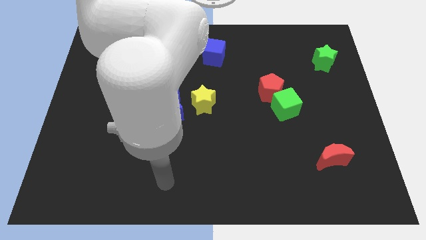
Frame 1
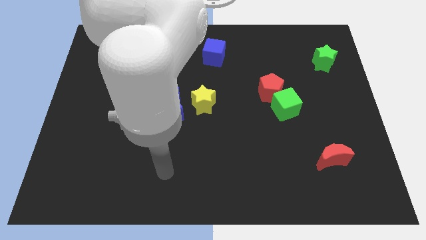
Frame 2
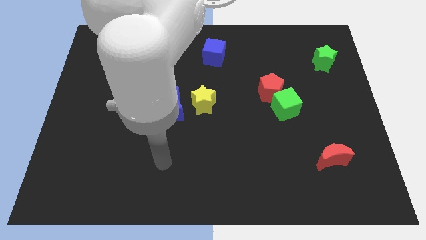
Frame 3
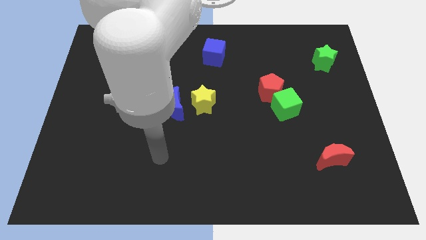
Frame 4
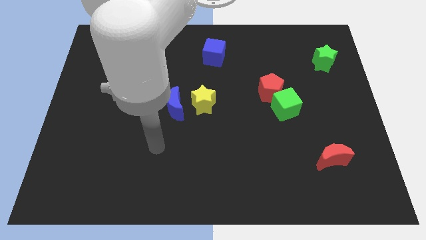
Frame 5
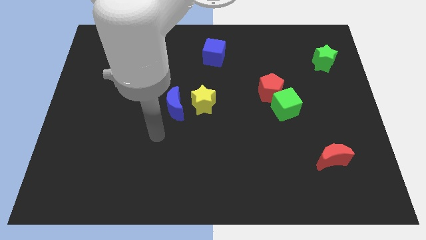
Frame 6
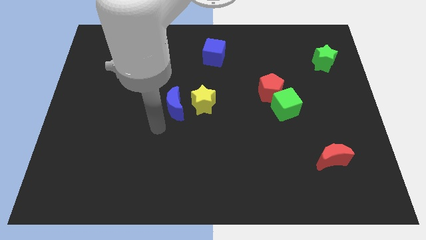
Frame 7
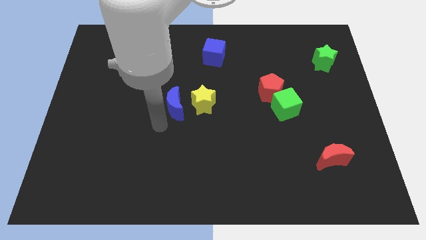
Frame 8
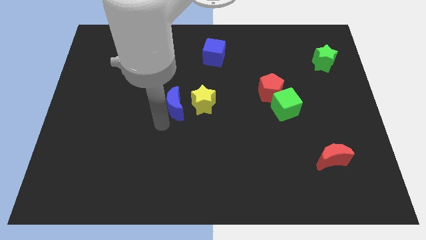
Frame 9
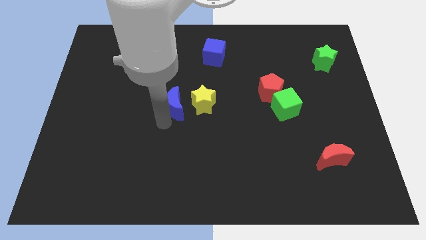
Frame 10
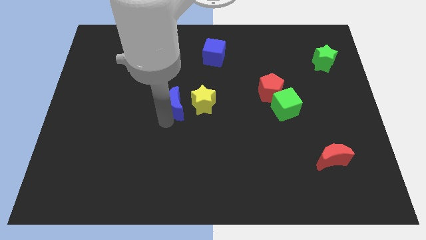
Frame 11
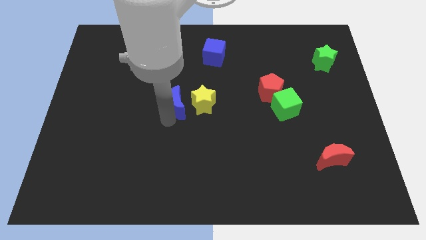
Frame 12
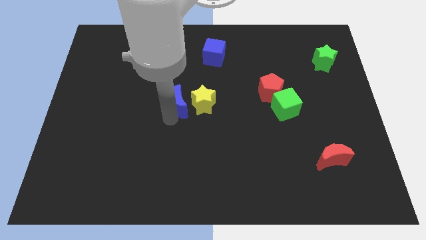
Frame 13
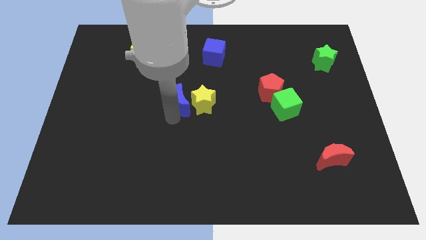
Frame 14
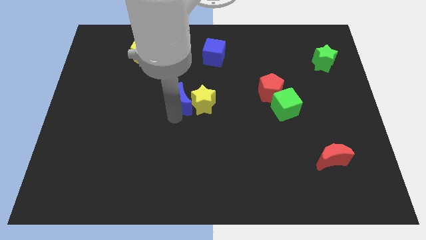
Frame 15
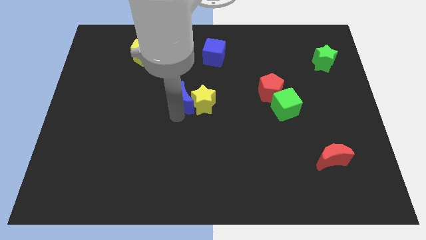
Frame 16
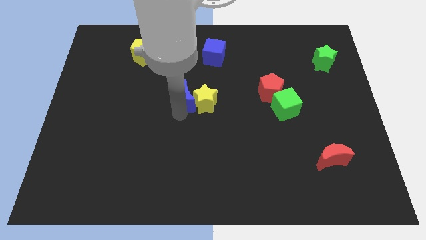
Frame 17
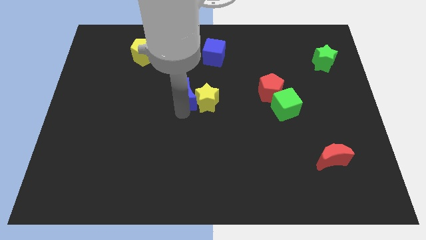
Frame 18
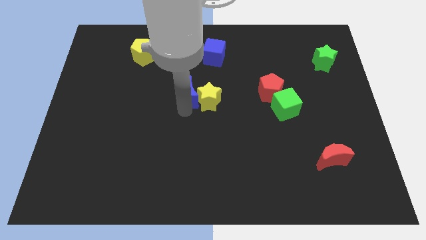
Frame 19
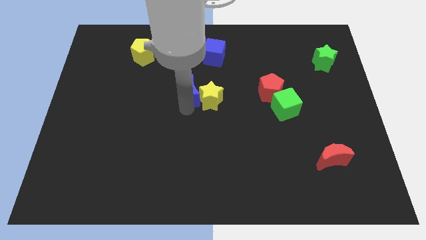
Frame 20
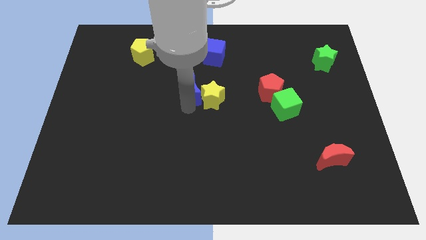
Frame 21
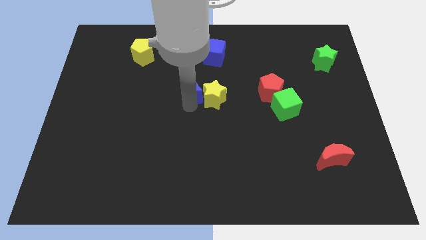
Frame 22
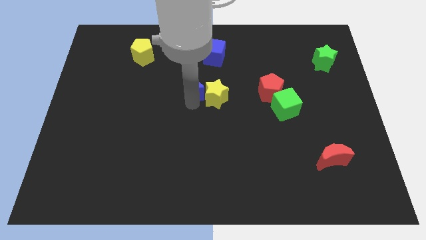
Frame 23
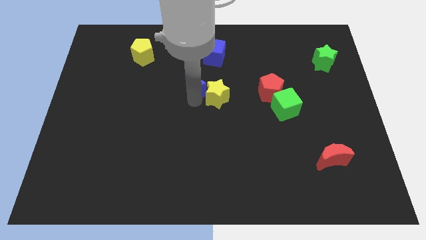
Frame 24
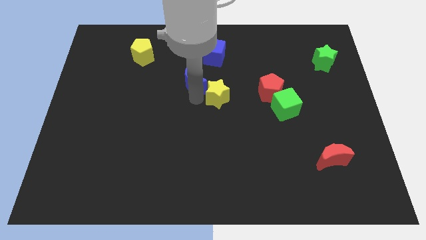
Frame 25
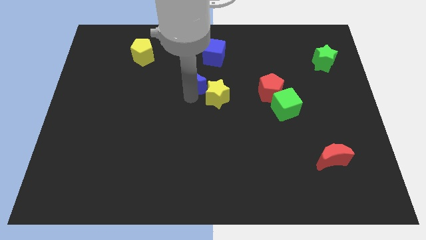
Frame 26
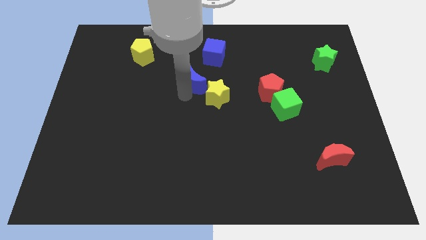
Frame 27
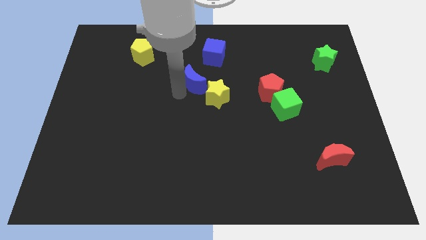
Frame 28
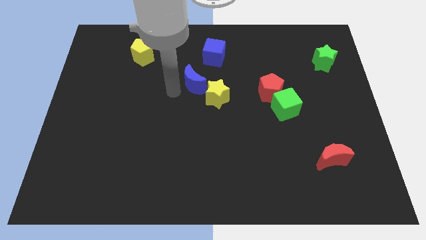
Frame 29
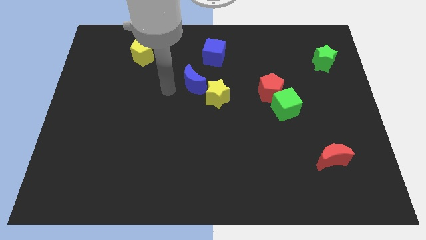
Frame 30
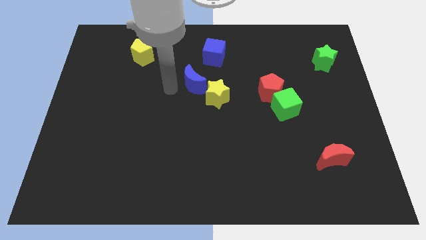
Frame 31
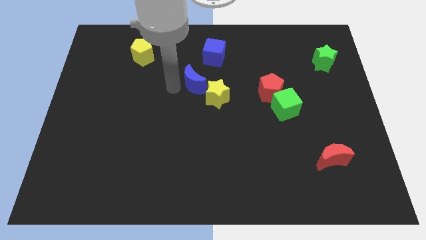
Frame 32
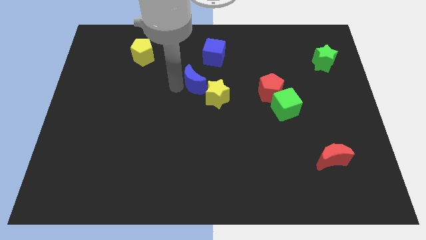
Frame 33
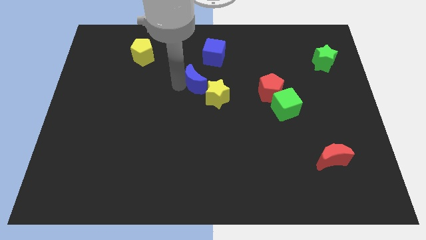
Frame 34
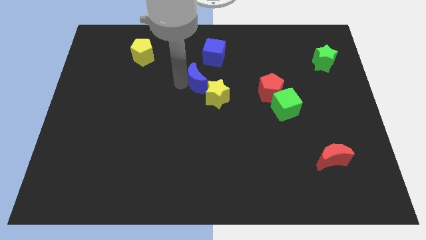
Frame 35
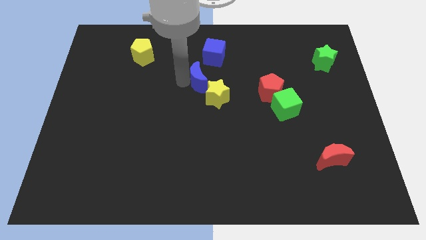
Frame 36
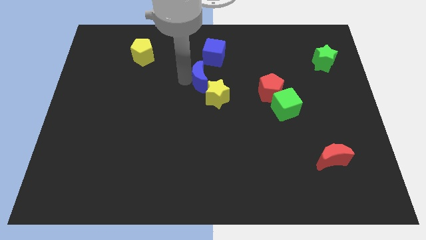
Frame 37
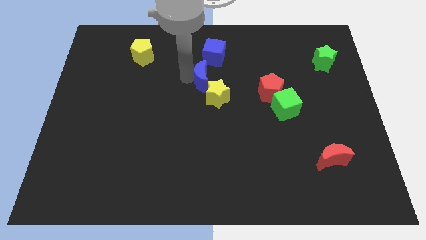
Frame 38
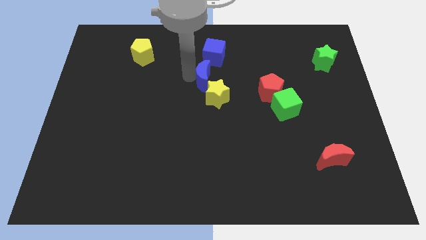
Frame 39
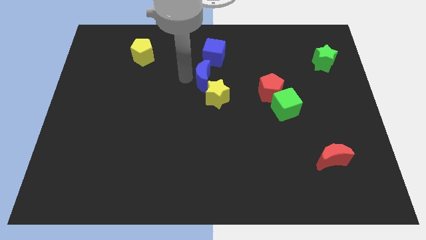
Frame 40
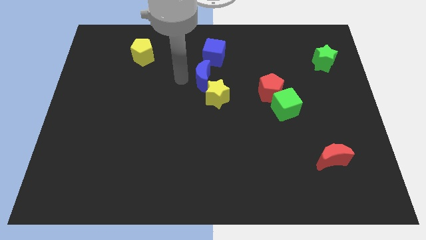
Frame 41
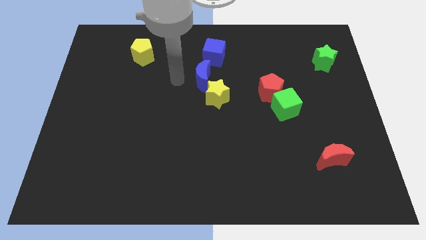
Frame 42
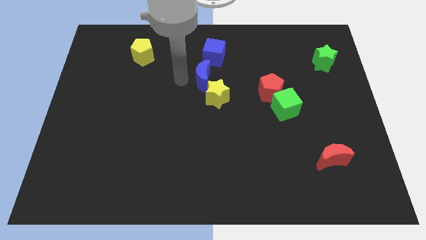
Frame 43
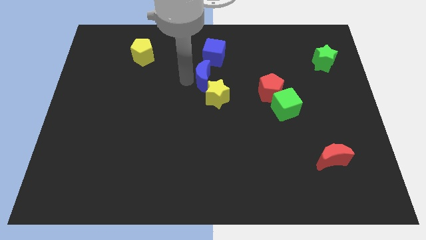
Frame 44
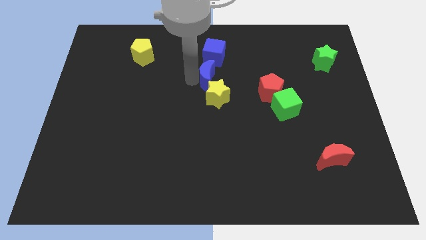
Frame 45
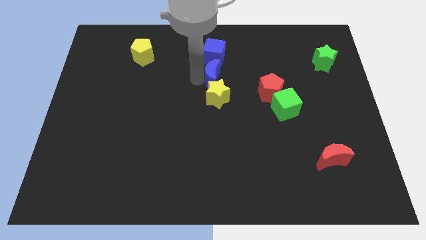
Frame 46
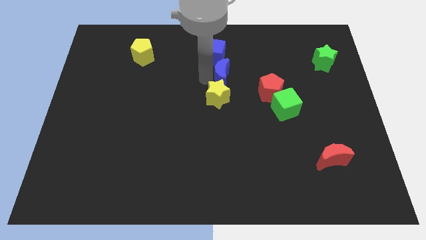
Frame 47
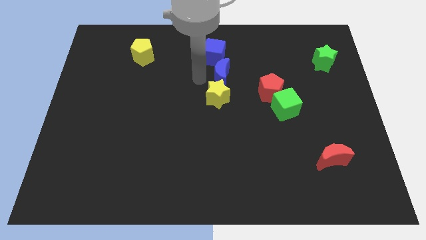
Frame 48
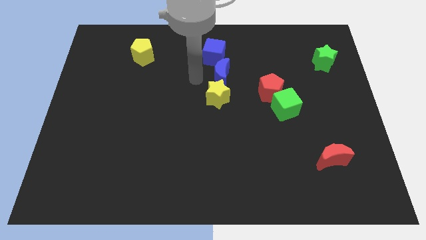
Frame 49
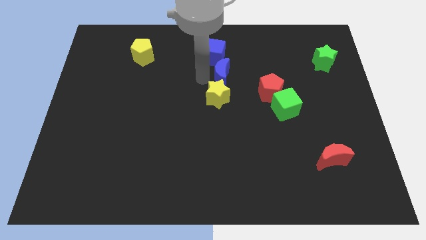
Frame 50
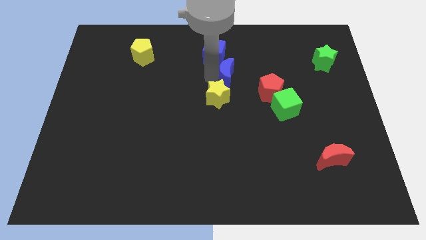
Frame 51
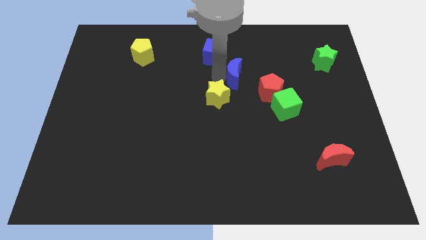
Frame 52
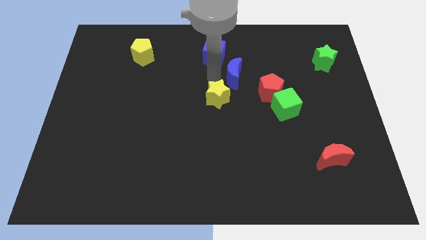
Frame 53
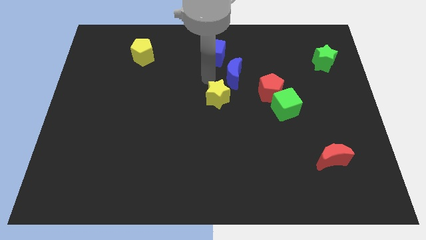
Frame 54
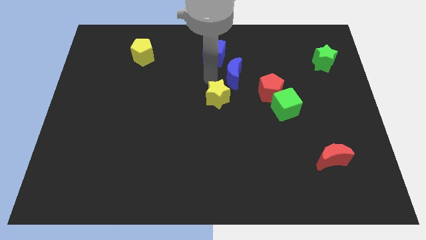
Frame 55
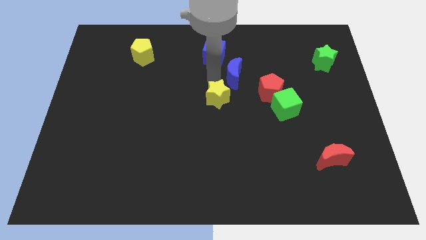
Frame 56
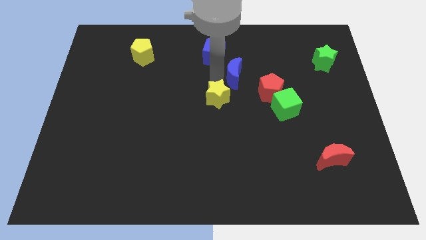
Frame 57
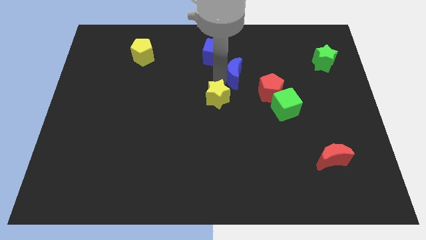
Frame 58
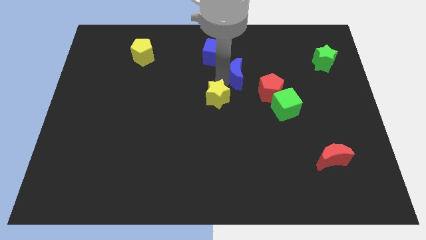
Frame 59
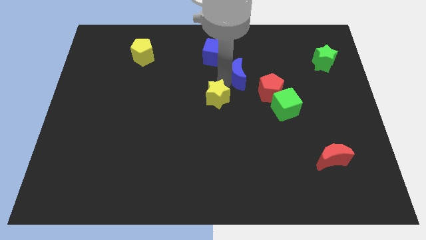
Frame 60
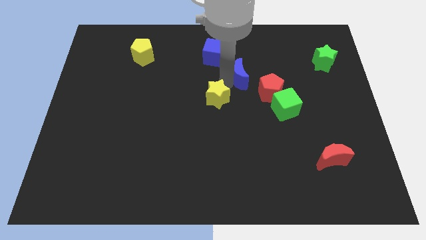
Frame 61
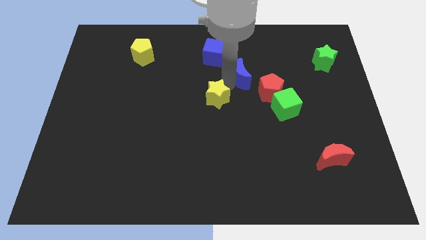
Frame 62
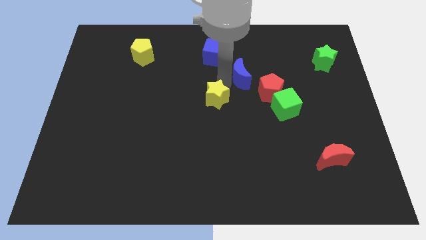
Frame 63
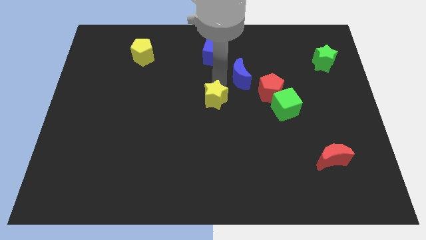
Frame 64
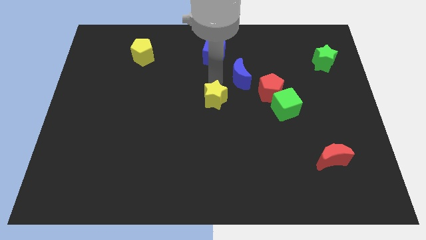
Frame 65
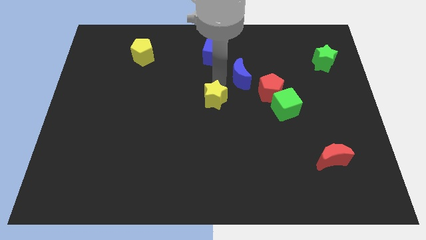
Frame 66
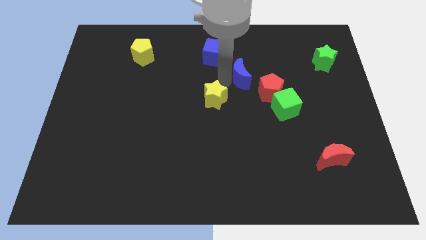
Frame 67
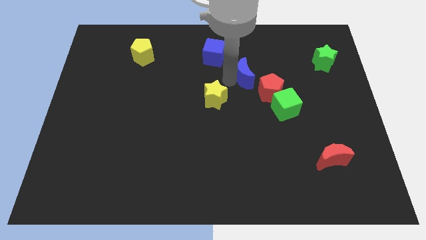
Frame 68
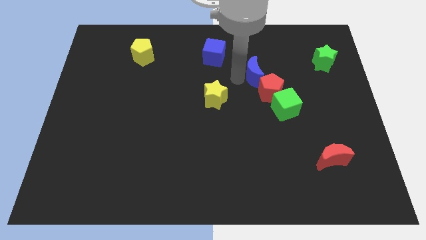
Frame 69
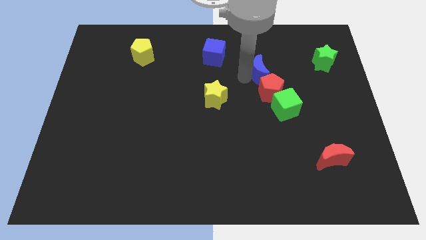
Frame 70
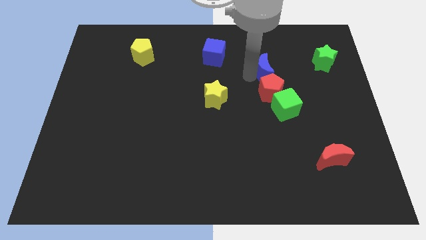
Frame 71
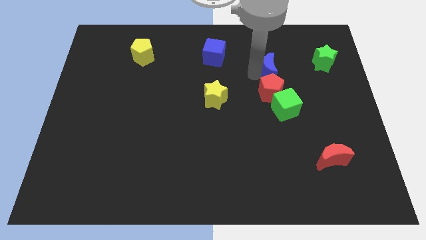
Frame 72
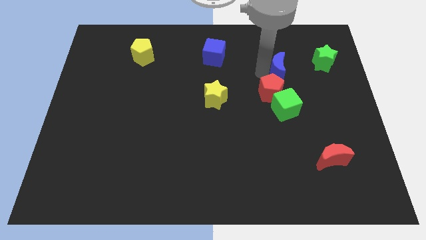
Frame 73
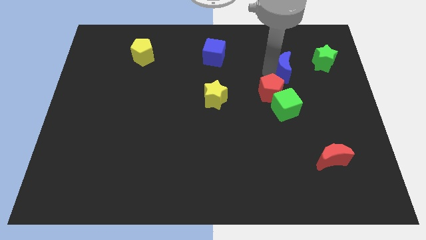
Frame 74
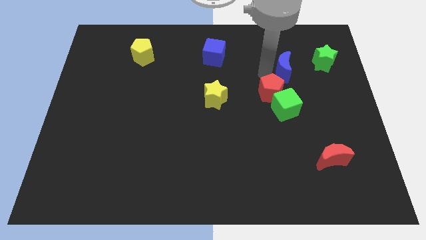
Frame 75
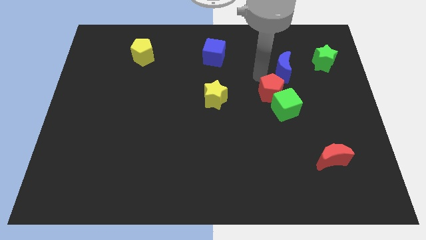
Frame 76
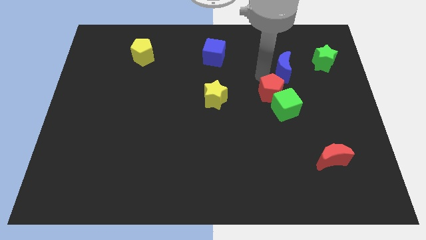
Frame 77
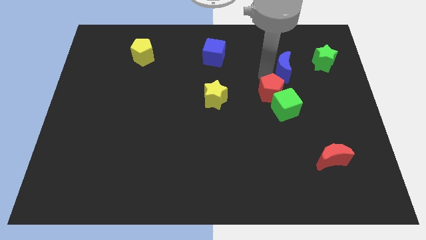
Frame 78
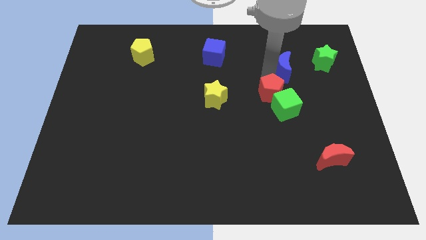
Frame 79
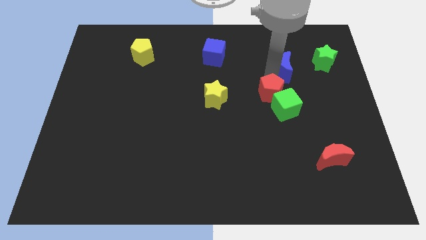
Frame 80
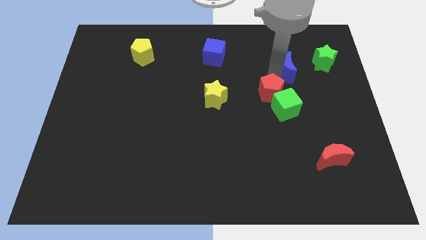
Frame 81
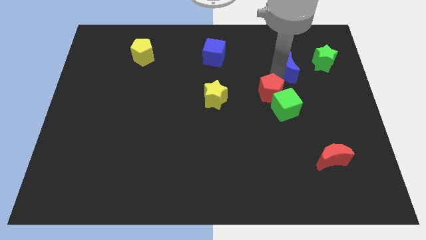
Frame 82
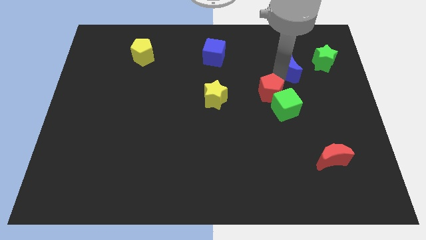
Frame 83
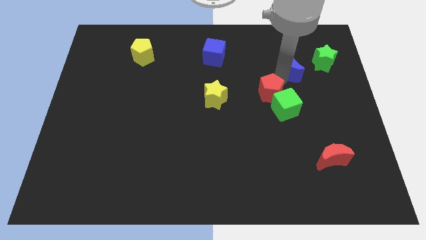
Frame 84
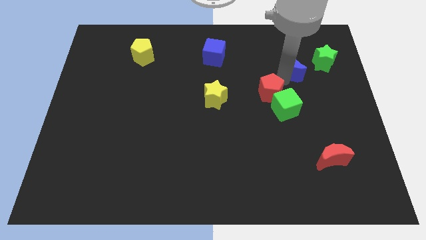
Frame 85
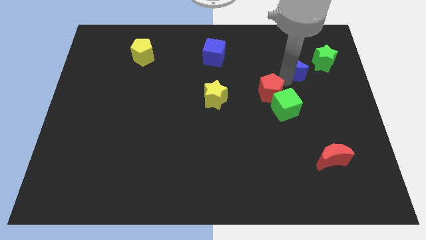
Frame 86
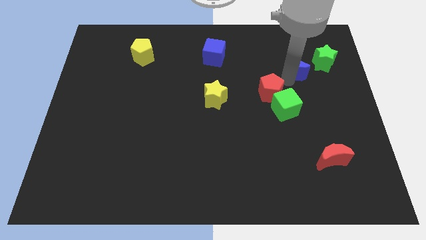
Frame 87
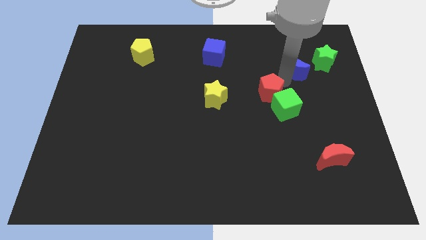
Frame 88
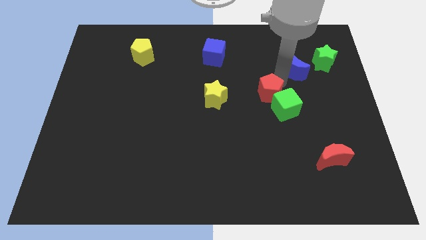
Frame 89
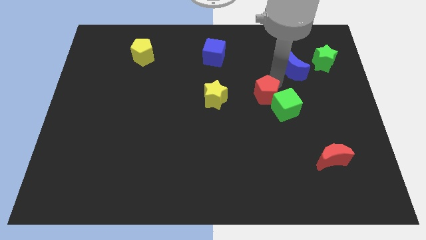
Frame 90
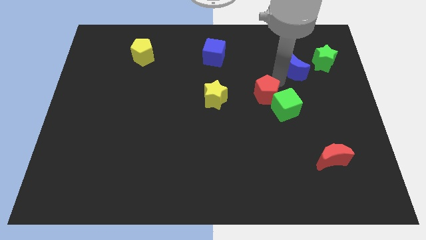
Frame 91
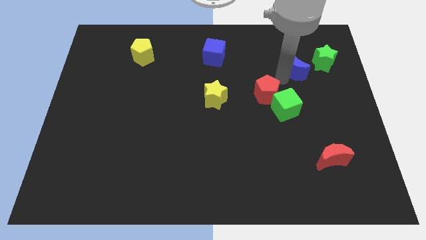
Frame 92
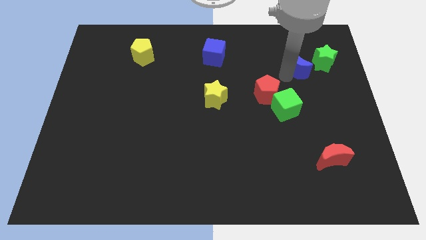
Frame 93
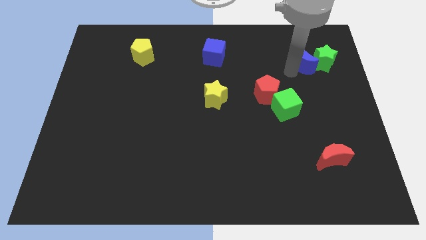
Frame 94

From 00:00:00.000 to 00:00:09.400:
put the blue moon next to the green star
